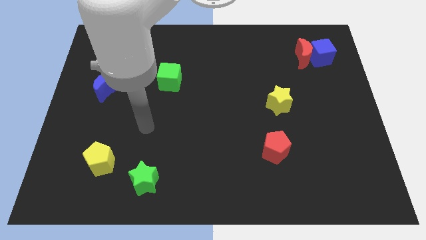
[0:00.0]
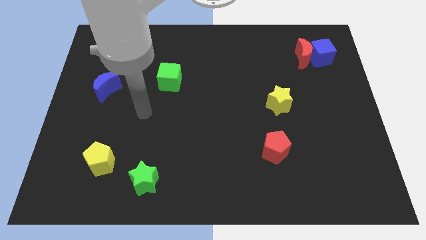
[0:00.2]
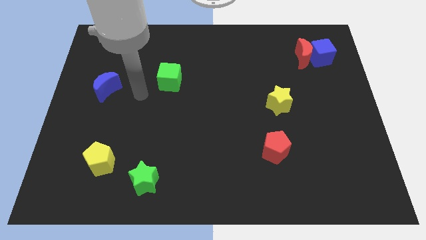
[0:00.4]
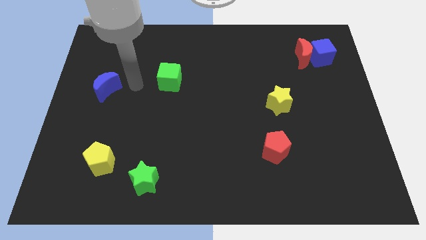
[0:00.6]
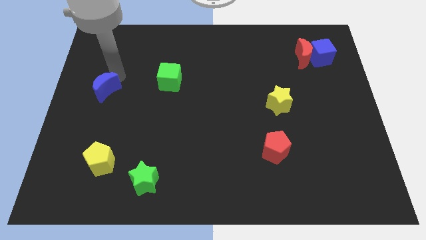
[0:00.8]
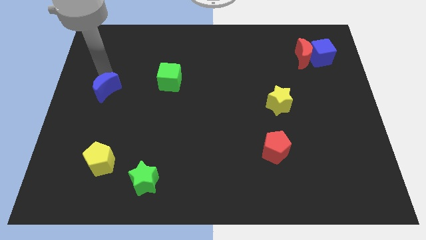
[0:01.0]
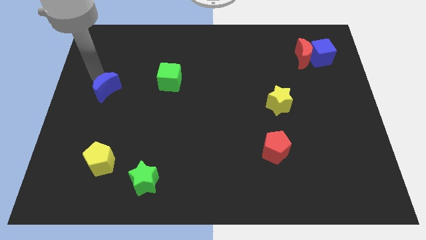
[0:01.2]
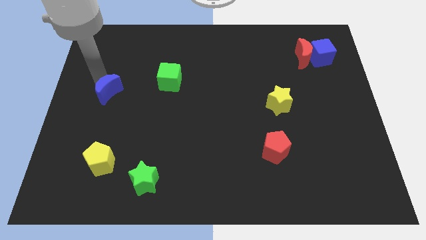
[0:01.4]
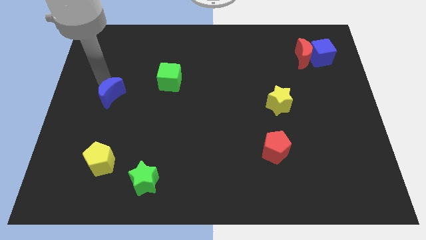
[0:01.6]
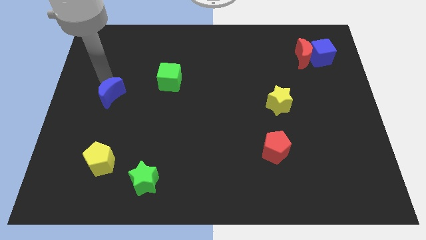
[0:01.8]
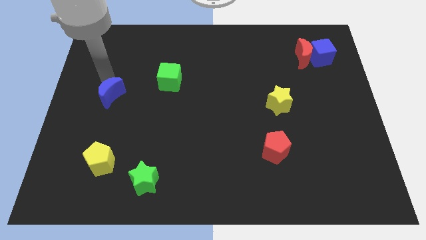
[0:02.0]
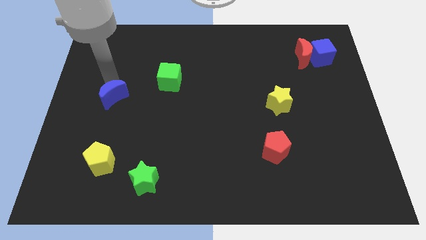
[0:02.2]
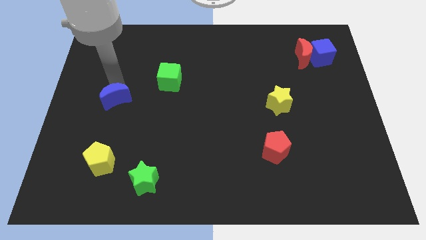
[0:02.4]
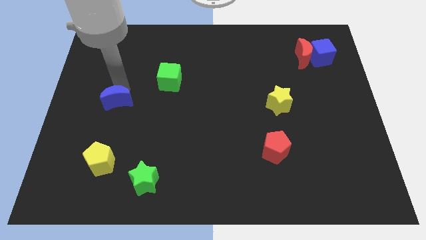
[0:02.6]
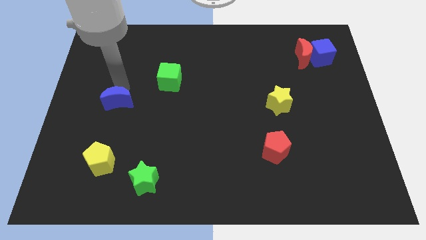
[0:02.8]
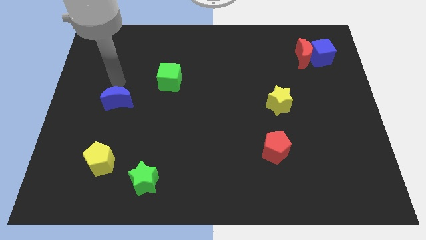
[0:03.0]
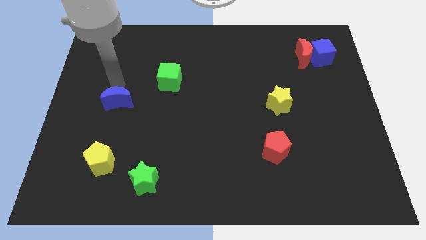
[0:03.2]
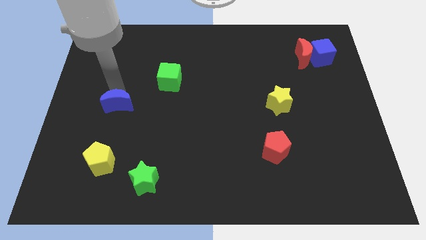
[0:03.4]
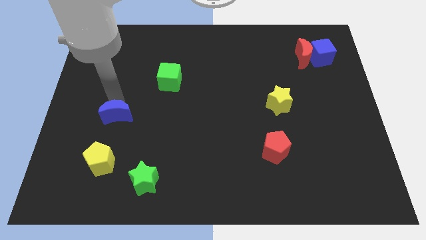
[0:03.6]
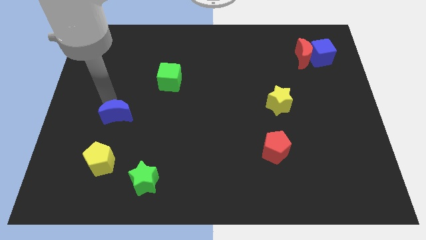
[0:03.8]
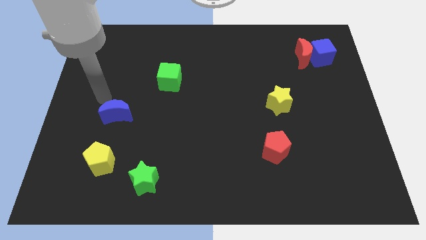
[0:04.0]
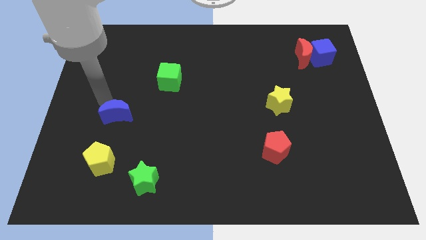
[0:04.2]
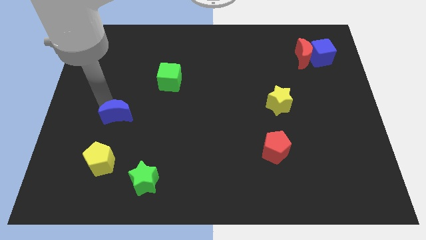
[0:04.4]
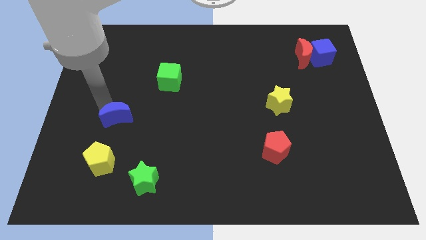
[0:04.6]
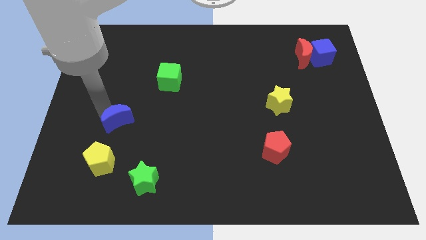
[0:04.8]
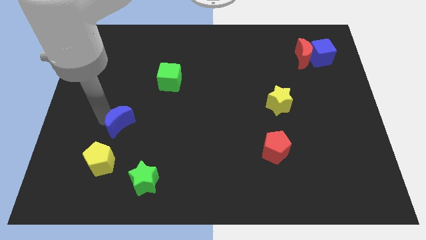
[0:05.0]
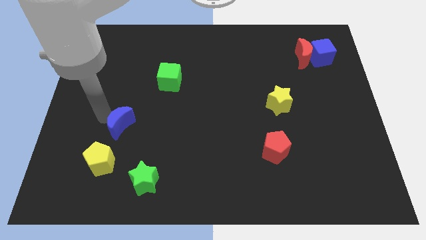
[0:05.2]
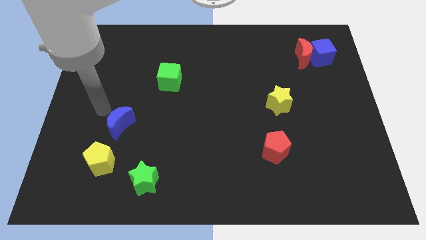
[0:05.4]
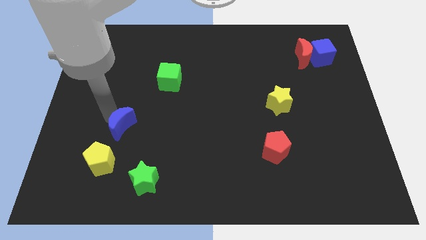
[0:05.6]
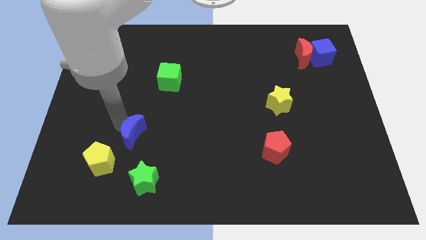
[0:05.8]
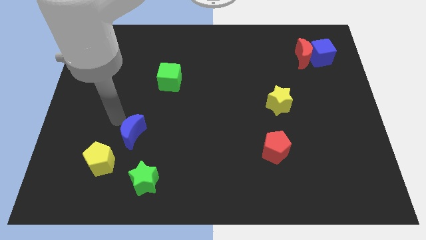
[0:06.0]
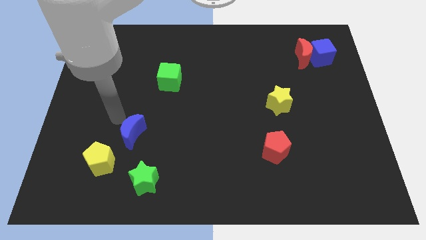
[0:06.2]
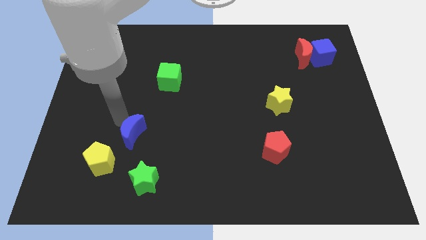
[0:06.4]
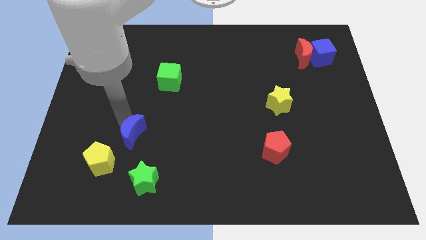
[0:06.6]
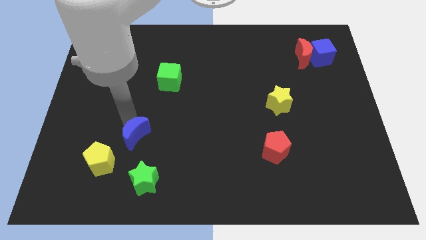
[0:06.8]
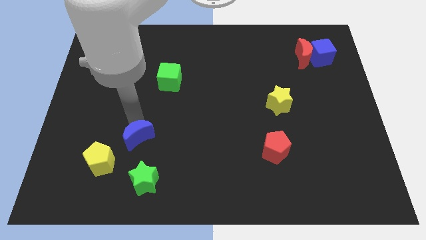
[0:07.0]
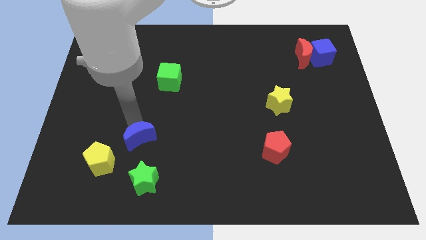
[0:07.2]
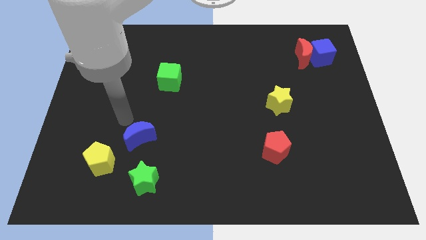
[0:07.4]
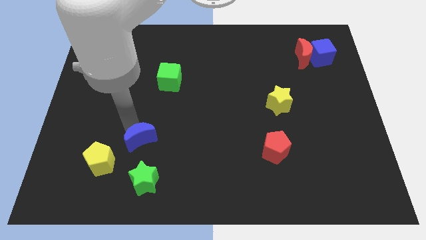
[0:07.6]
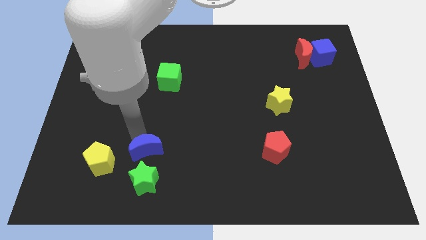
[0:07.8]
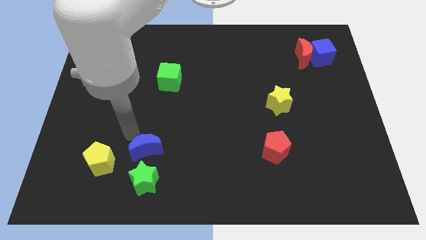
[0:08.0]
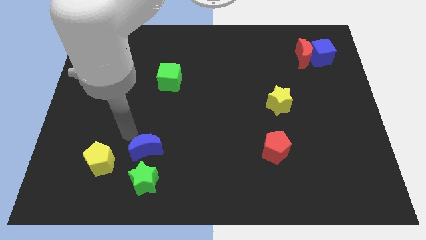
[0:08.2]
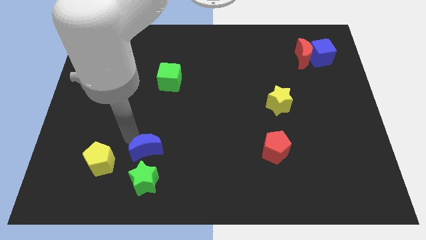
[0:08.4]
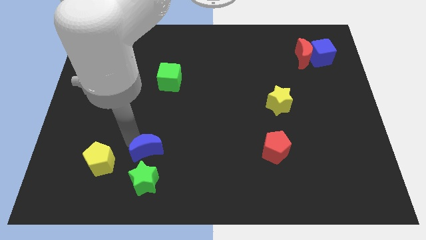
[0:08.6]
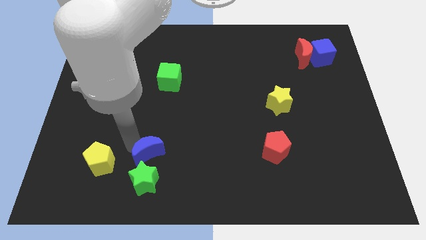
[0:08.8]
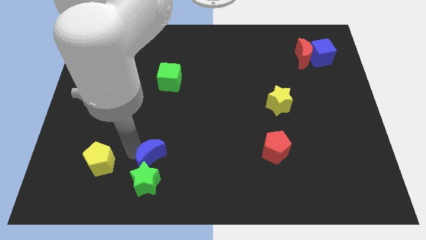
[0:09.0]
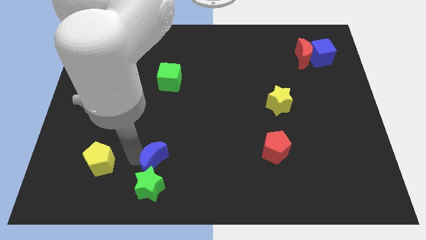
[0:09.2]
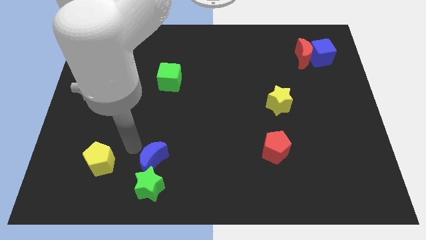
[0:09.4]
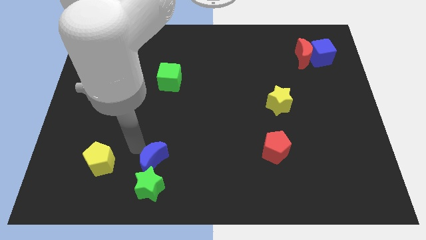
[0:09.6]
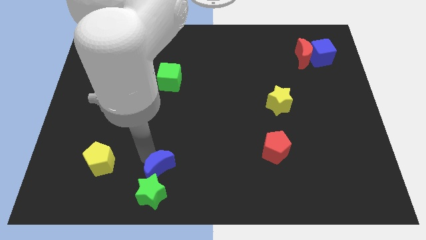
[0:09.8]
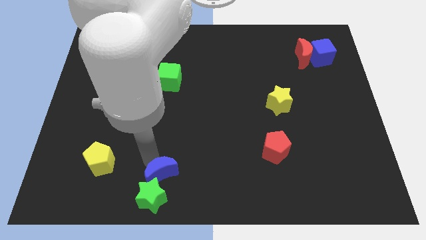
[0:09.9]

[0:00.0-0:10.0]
put the blue moon to the bottom

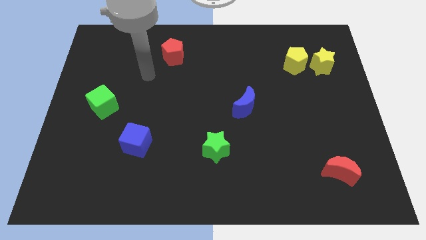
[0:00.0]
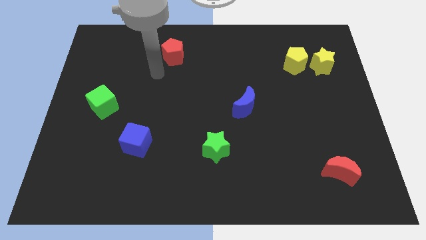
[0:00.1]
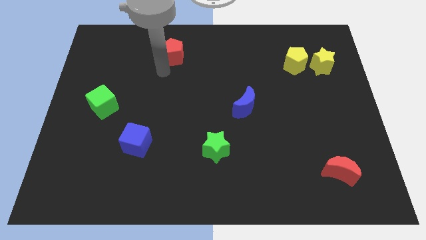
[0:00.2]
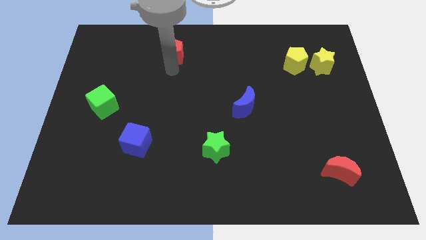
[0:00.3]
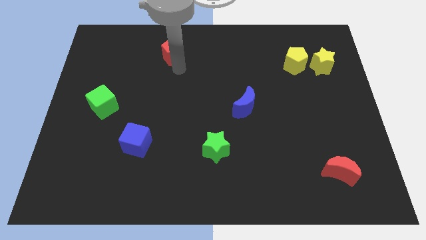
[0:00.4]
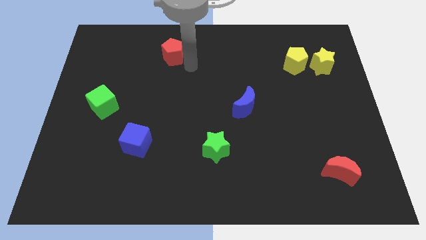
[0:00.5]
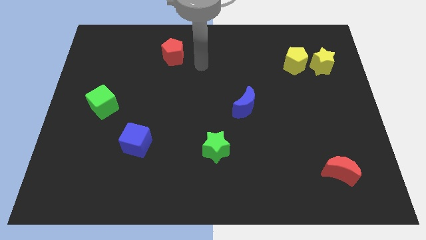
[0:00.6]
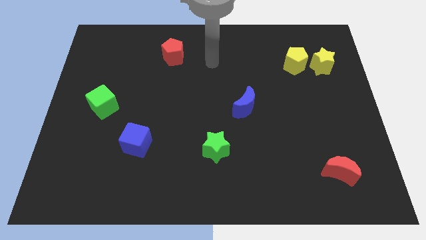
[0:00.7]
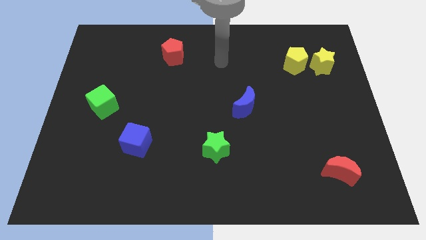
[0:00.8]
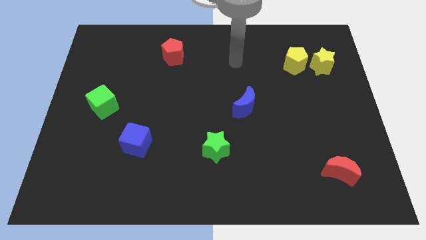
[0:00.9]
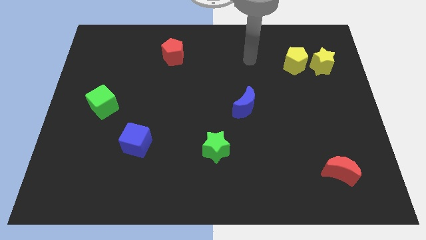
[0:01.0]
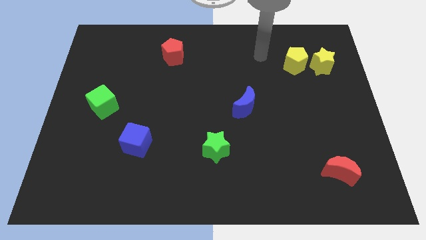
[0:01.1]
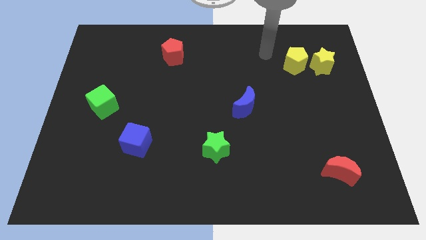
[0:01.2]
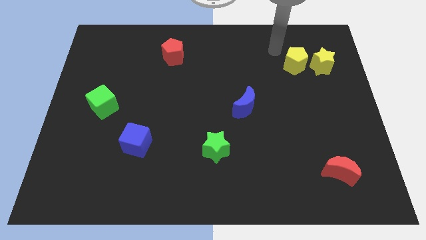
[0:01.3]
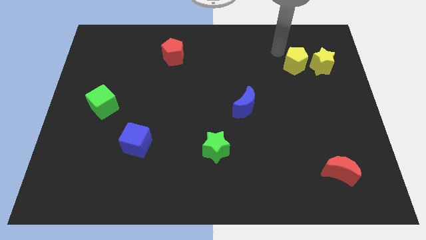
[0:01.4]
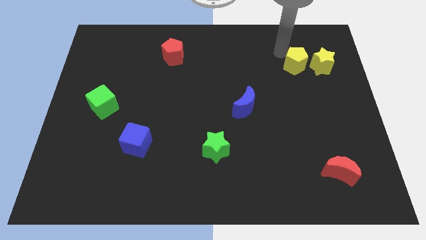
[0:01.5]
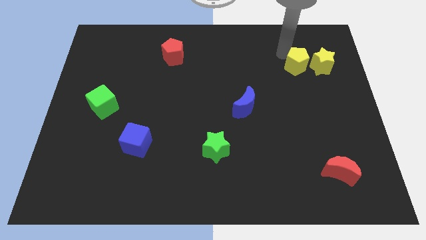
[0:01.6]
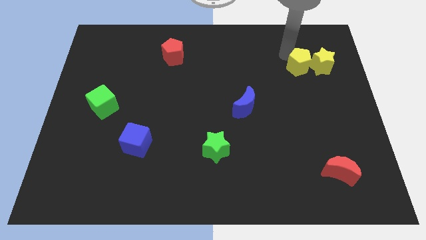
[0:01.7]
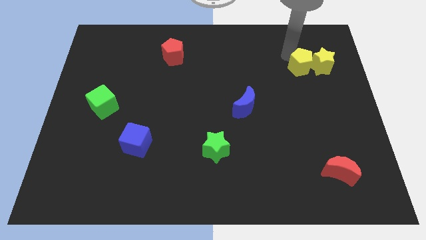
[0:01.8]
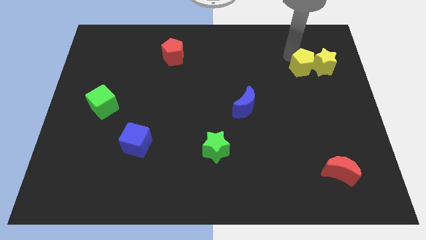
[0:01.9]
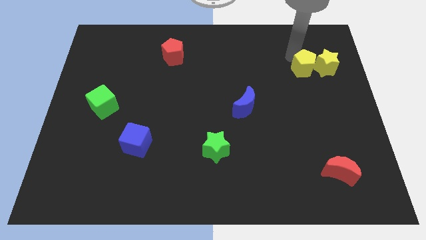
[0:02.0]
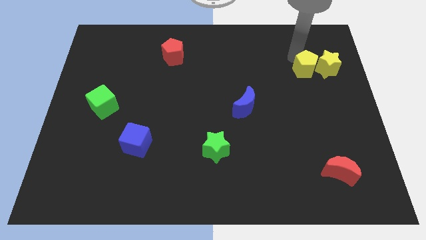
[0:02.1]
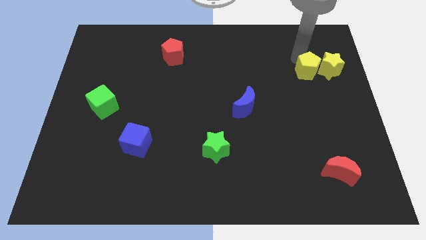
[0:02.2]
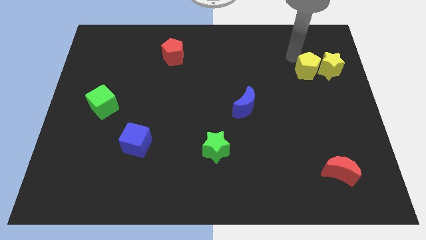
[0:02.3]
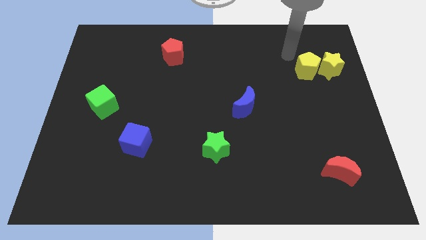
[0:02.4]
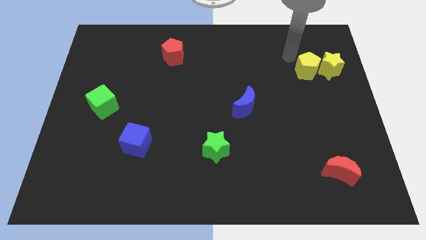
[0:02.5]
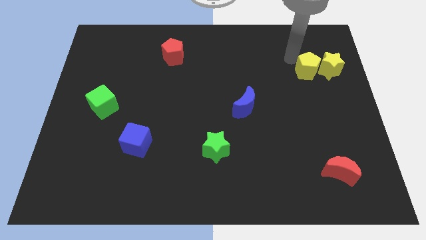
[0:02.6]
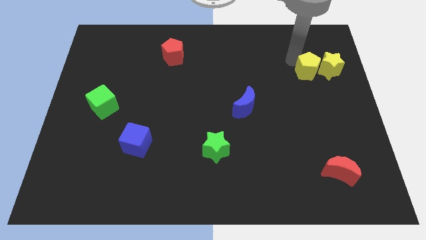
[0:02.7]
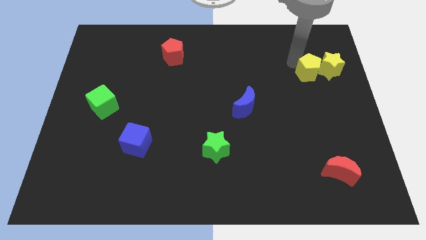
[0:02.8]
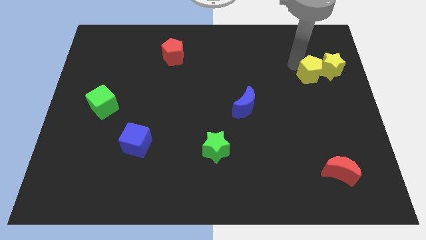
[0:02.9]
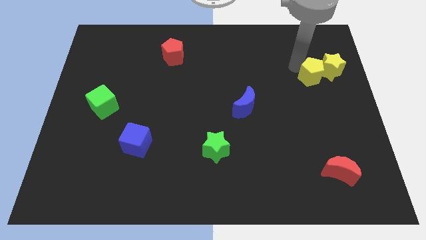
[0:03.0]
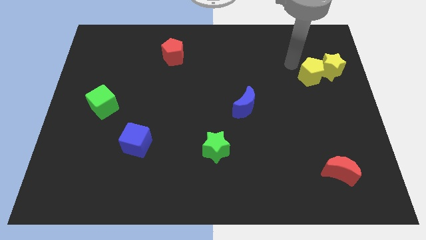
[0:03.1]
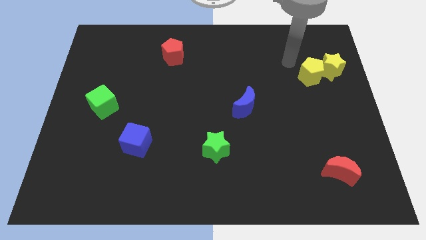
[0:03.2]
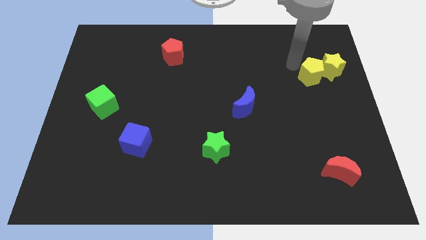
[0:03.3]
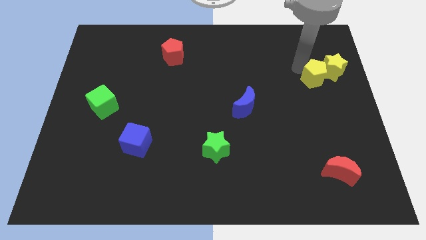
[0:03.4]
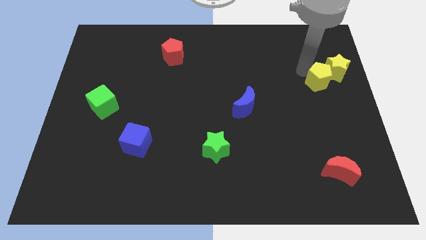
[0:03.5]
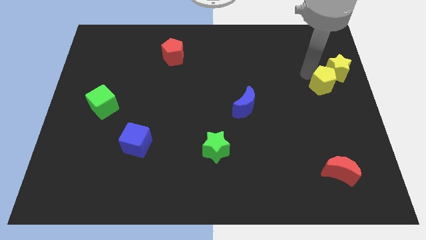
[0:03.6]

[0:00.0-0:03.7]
move the yellow pentagon to the right side of the board
